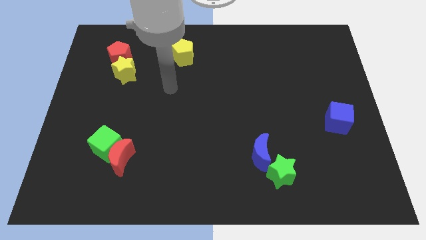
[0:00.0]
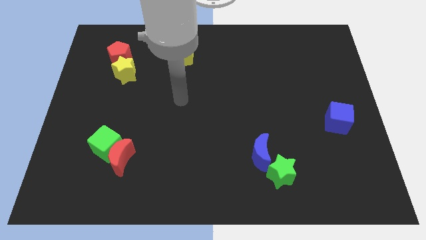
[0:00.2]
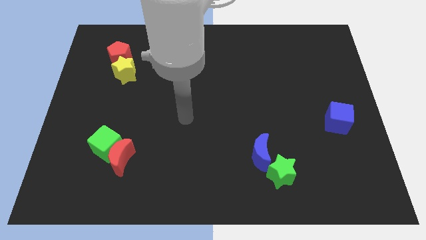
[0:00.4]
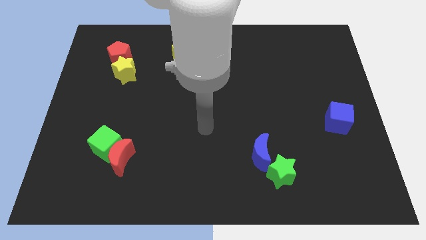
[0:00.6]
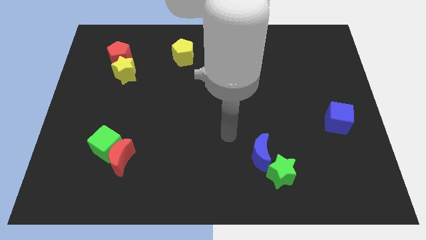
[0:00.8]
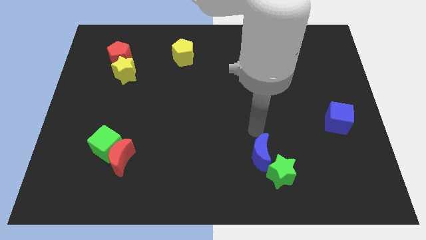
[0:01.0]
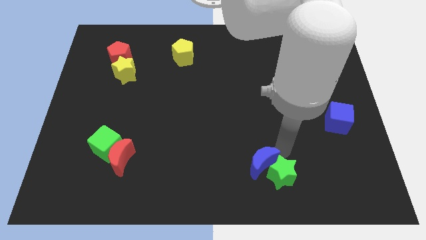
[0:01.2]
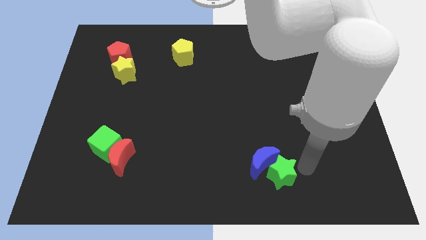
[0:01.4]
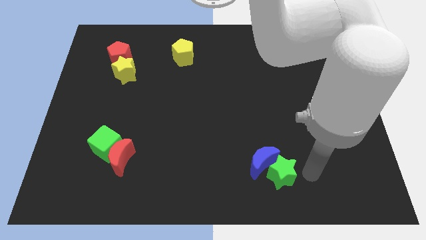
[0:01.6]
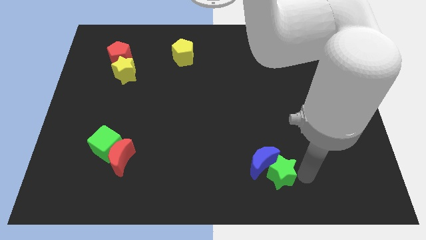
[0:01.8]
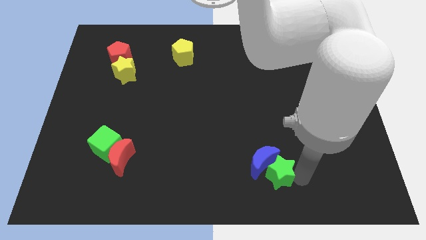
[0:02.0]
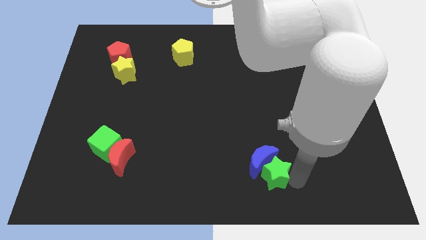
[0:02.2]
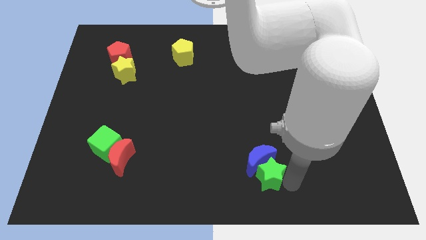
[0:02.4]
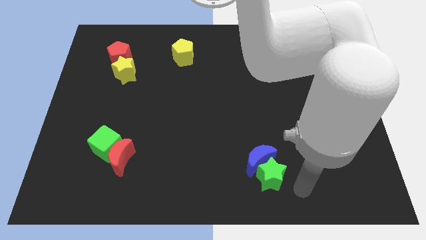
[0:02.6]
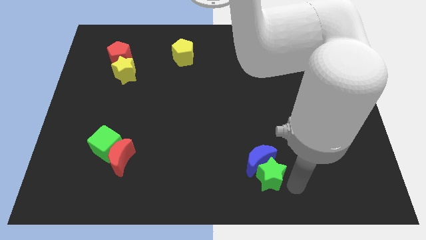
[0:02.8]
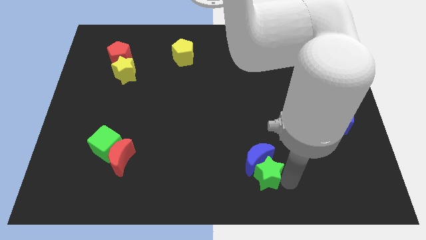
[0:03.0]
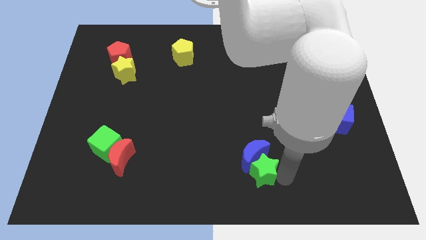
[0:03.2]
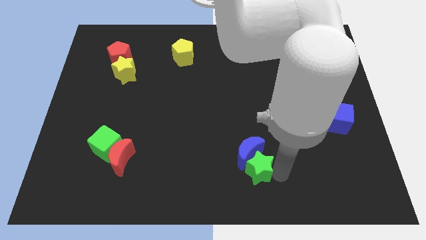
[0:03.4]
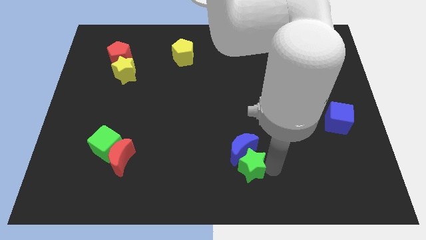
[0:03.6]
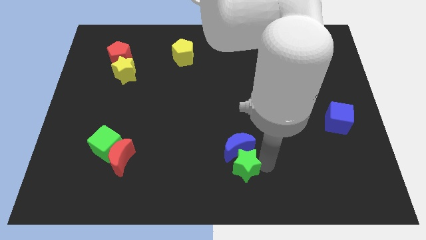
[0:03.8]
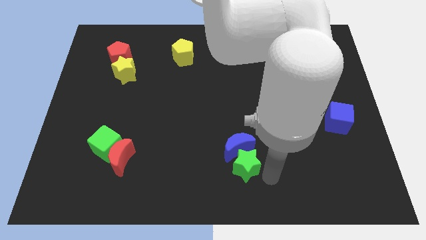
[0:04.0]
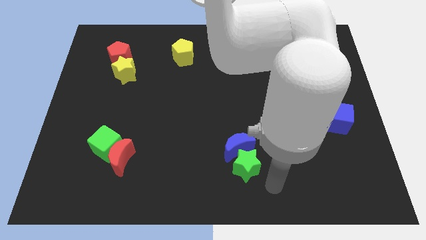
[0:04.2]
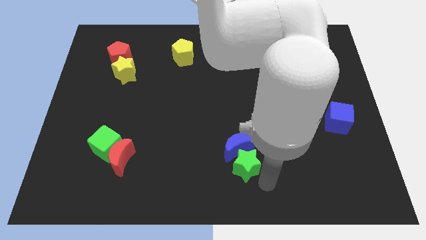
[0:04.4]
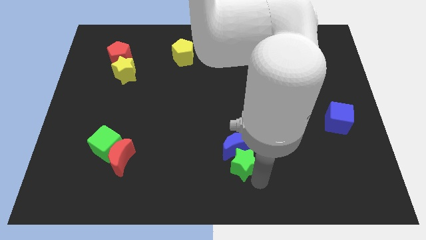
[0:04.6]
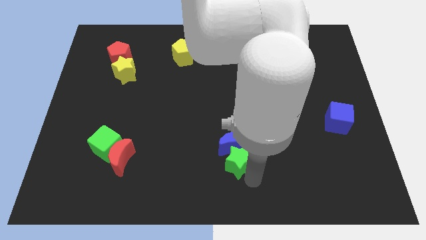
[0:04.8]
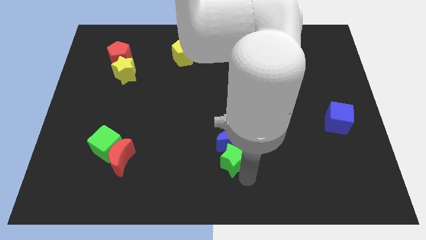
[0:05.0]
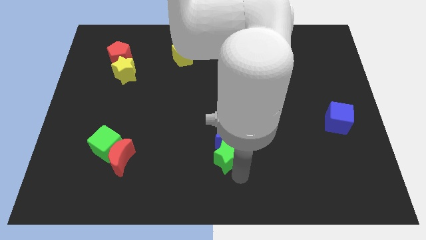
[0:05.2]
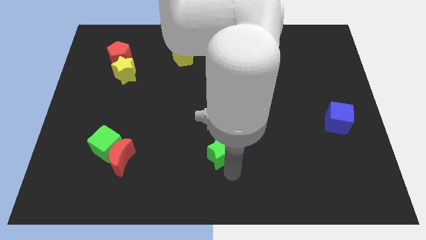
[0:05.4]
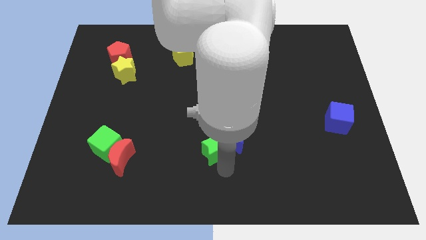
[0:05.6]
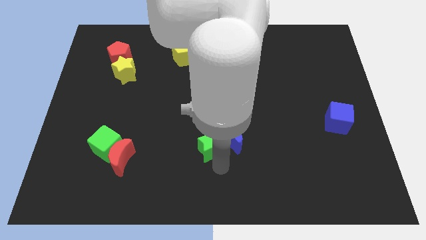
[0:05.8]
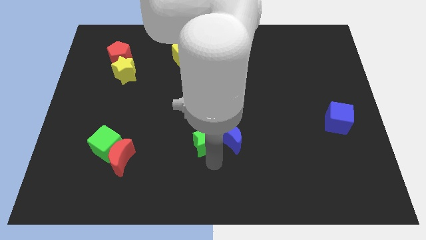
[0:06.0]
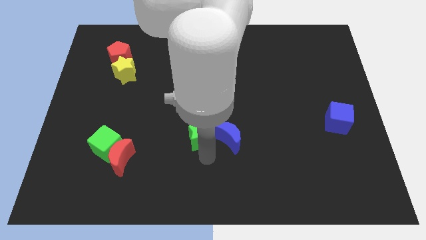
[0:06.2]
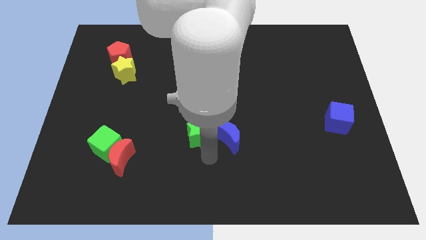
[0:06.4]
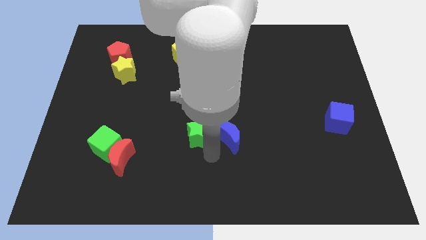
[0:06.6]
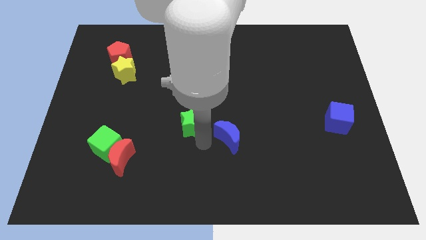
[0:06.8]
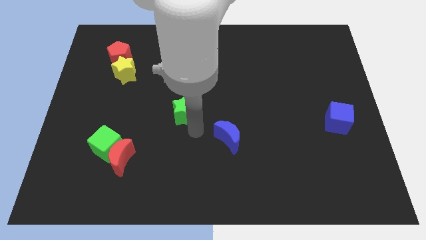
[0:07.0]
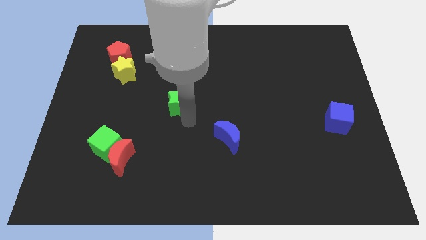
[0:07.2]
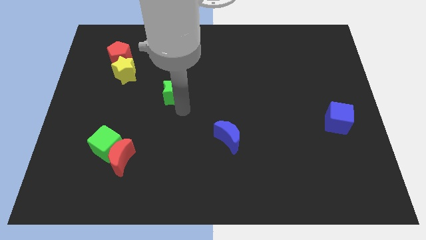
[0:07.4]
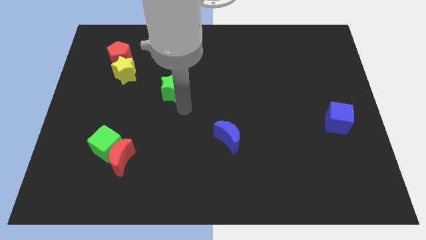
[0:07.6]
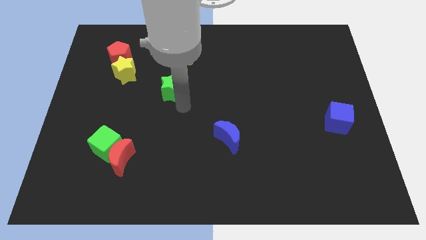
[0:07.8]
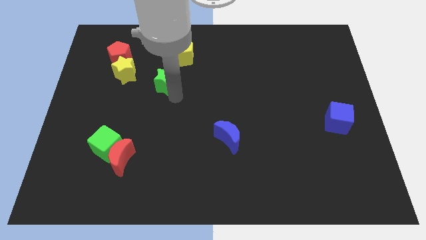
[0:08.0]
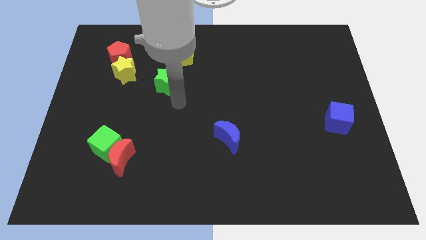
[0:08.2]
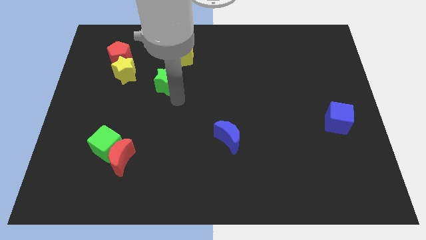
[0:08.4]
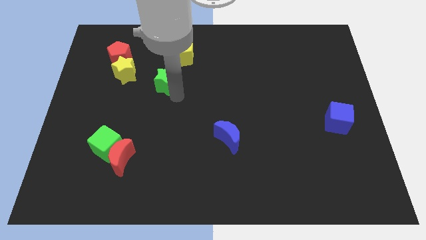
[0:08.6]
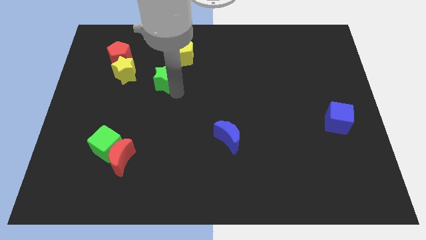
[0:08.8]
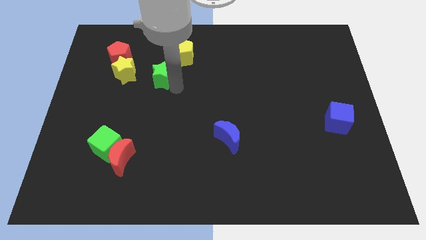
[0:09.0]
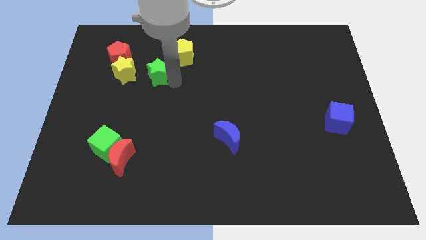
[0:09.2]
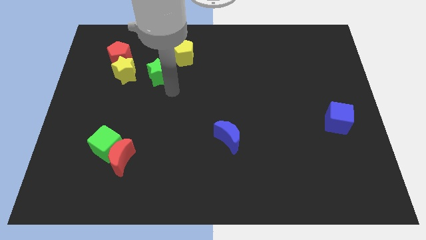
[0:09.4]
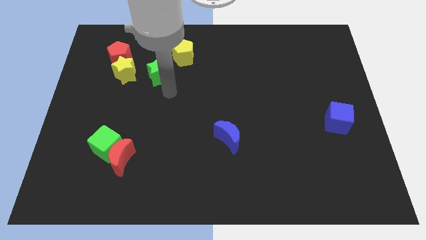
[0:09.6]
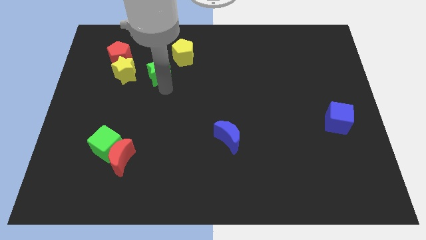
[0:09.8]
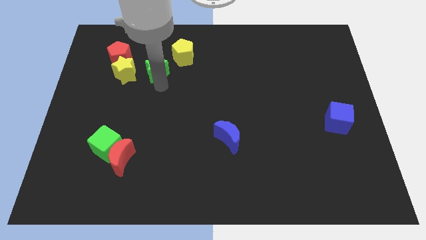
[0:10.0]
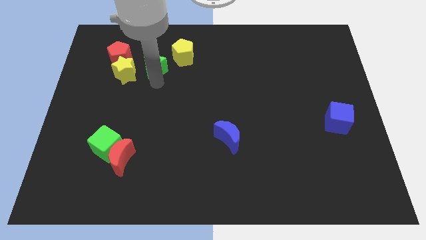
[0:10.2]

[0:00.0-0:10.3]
push the green star to the top right of the yellow star

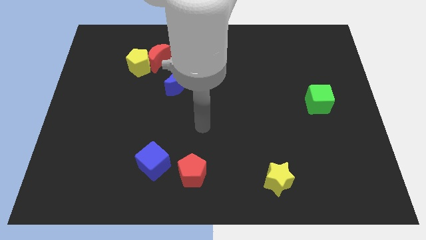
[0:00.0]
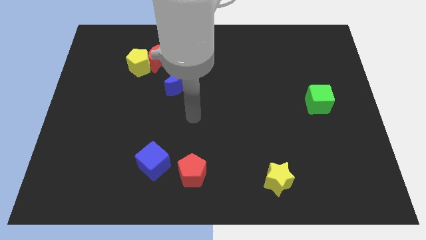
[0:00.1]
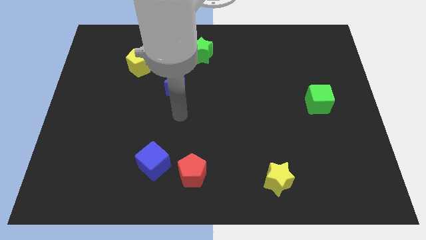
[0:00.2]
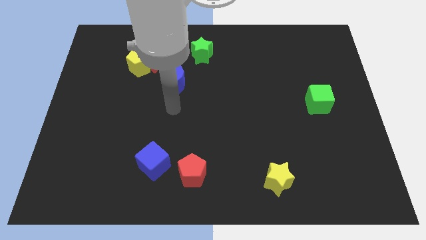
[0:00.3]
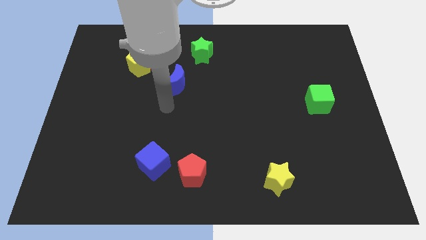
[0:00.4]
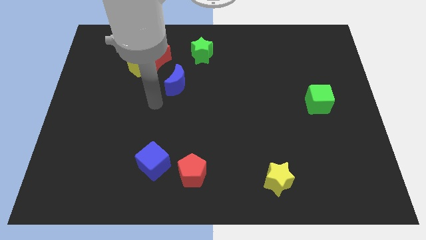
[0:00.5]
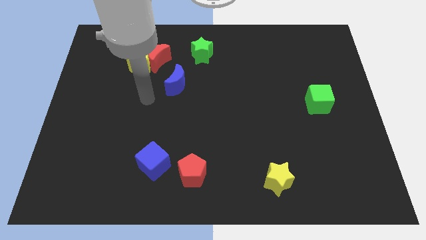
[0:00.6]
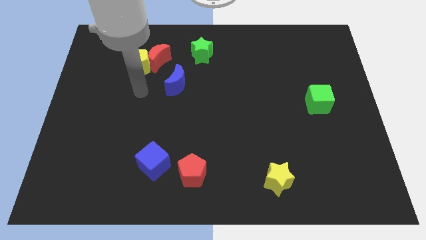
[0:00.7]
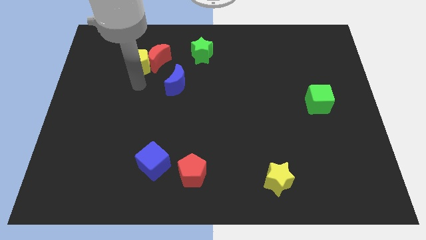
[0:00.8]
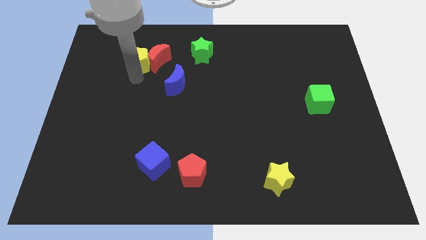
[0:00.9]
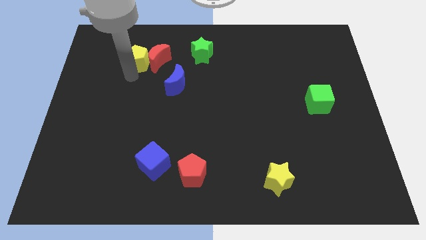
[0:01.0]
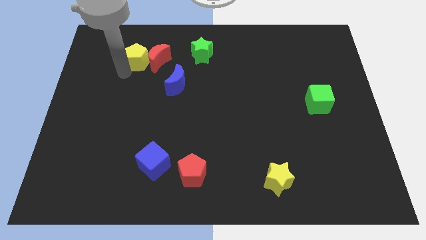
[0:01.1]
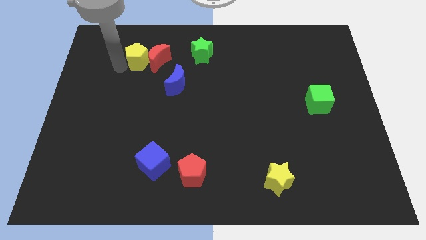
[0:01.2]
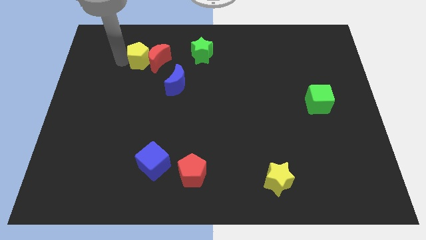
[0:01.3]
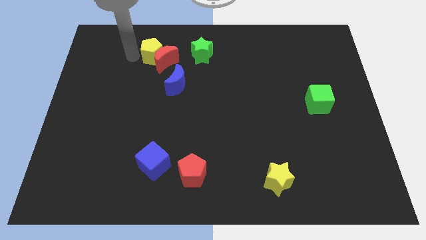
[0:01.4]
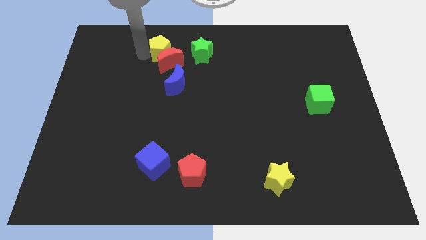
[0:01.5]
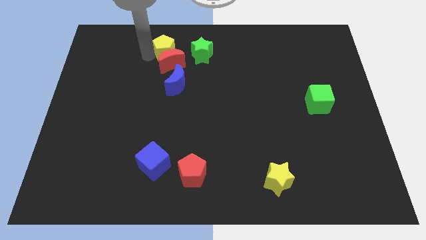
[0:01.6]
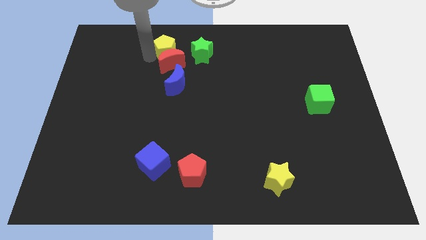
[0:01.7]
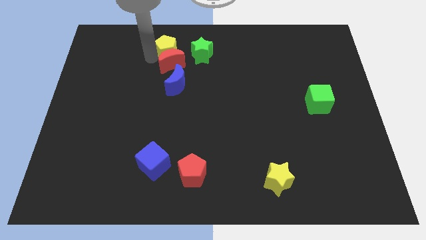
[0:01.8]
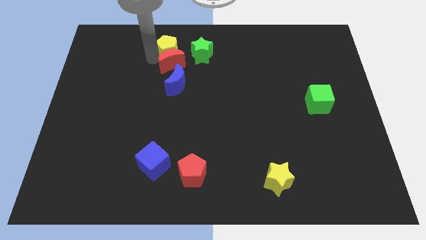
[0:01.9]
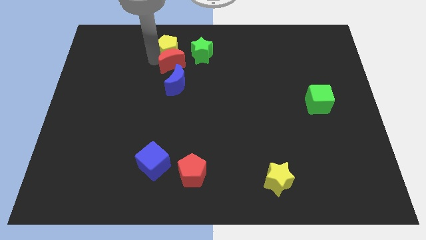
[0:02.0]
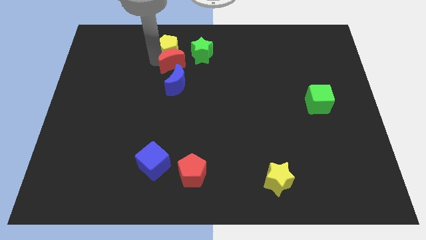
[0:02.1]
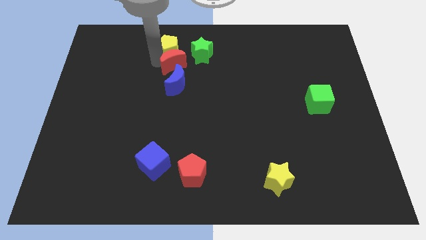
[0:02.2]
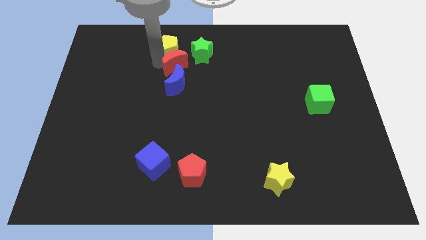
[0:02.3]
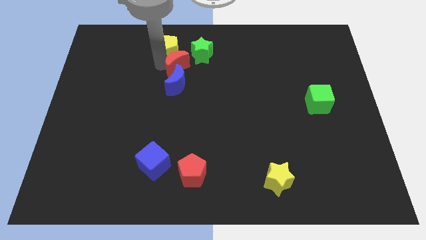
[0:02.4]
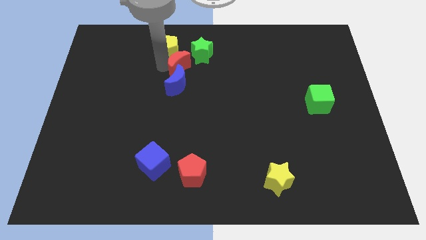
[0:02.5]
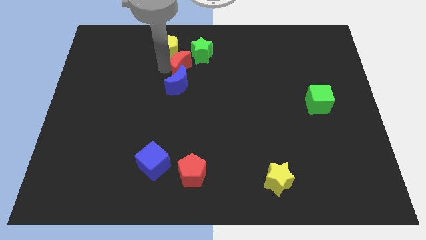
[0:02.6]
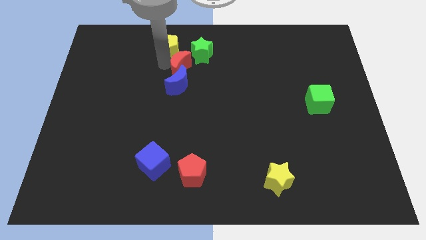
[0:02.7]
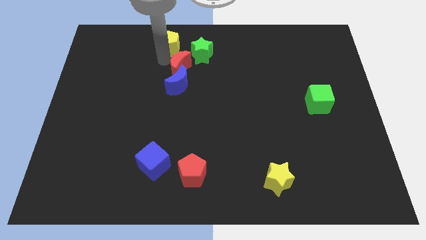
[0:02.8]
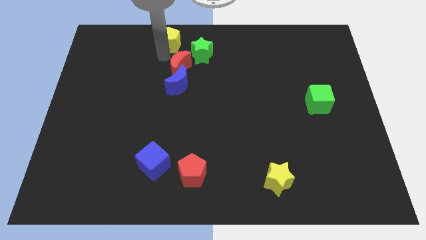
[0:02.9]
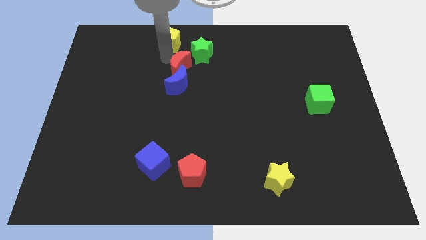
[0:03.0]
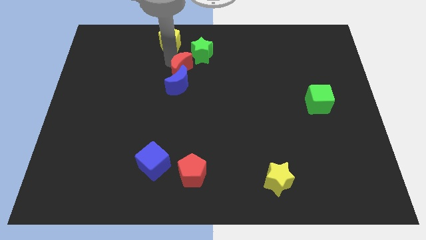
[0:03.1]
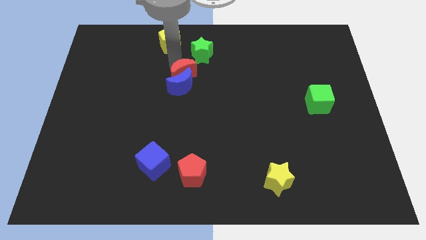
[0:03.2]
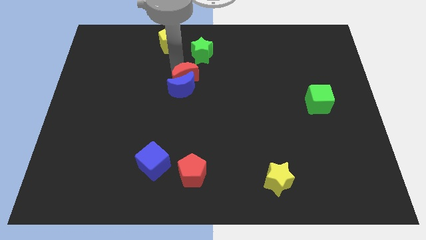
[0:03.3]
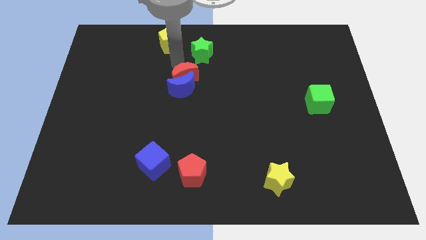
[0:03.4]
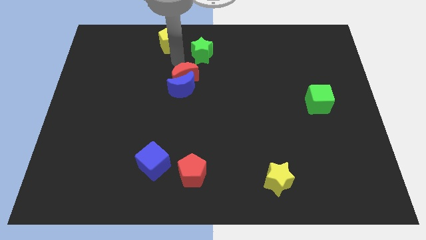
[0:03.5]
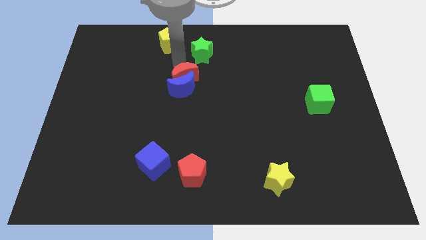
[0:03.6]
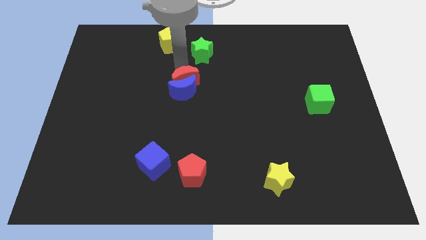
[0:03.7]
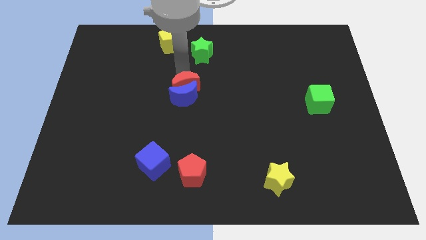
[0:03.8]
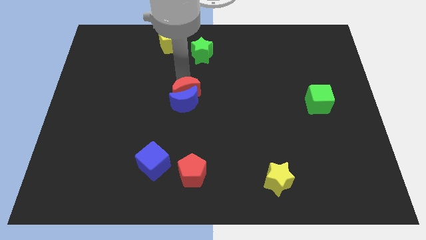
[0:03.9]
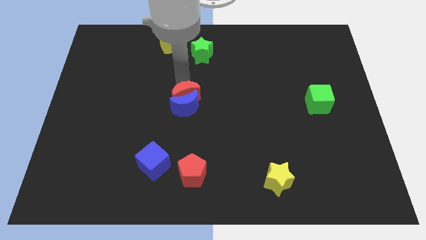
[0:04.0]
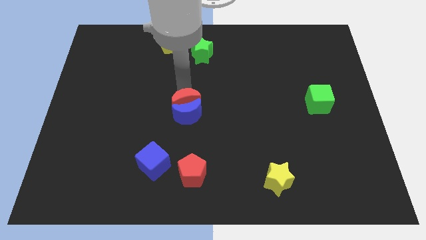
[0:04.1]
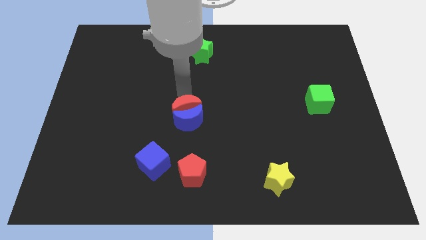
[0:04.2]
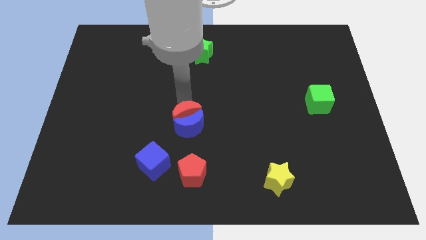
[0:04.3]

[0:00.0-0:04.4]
slide the red moon above the red pentagon
